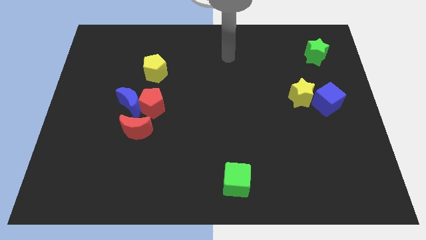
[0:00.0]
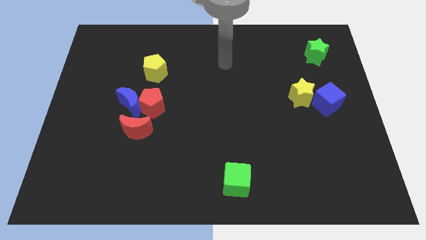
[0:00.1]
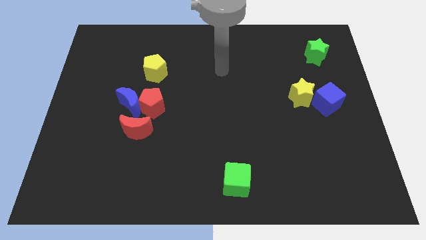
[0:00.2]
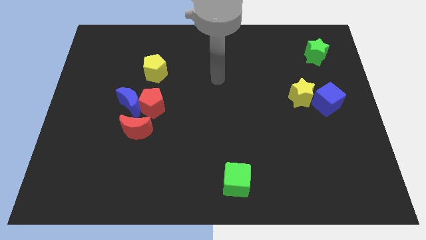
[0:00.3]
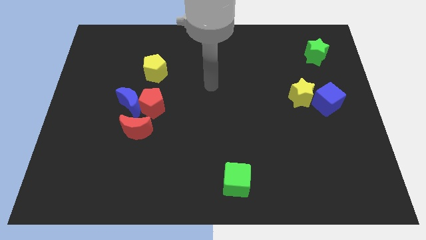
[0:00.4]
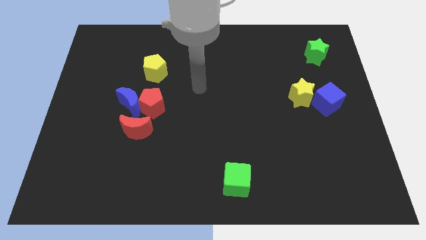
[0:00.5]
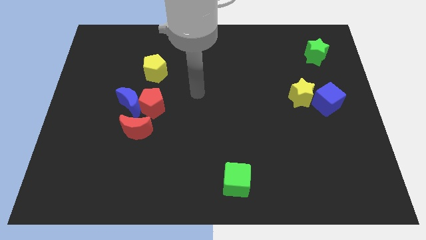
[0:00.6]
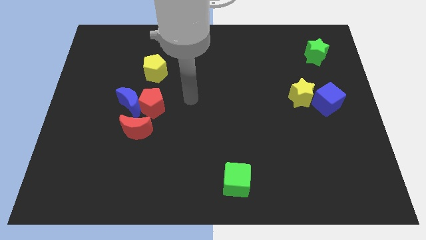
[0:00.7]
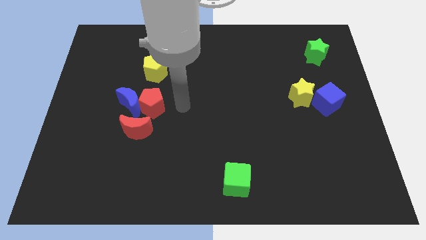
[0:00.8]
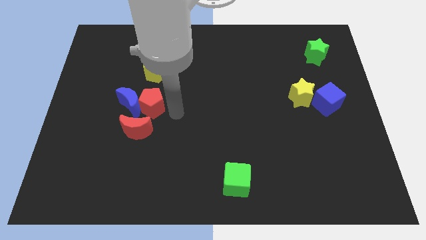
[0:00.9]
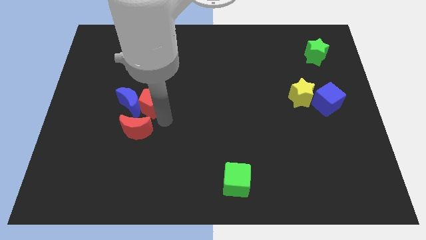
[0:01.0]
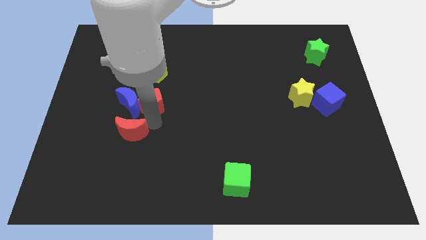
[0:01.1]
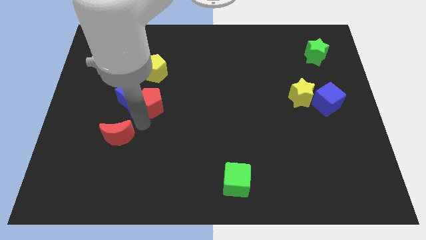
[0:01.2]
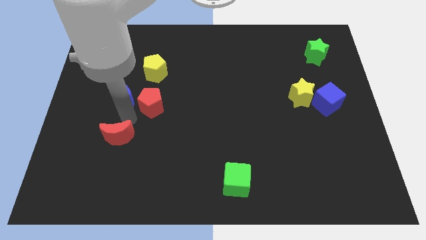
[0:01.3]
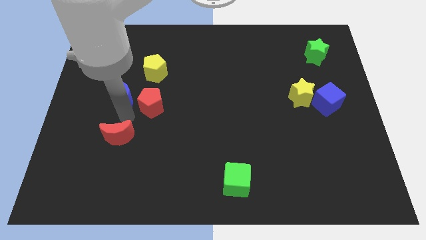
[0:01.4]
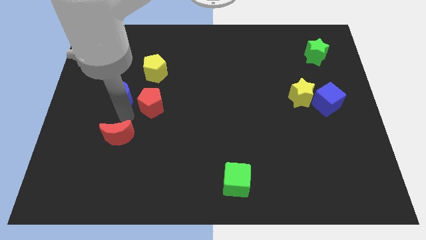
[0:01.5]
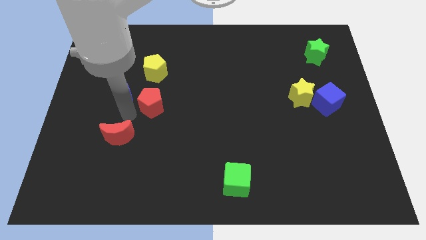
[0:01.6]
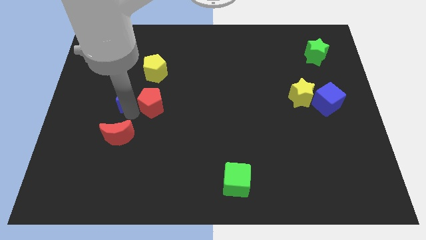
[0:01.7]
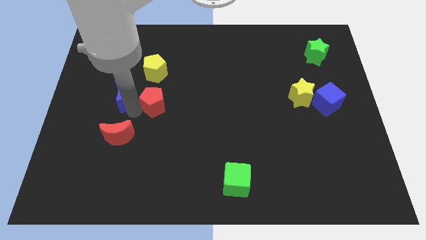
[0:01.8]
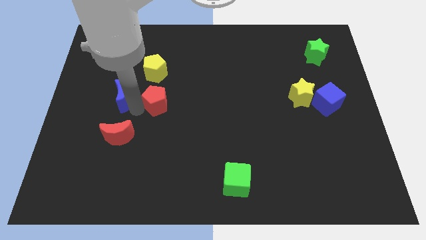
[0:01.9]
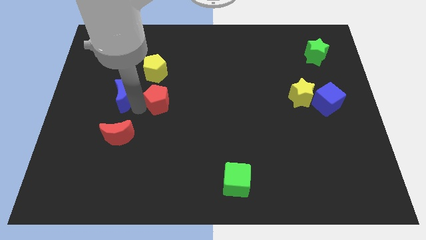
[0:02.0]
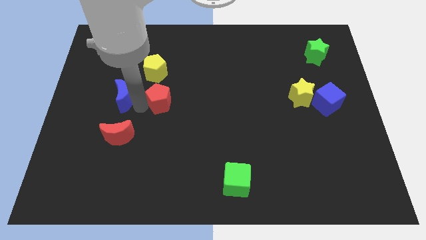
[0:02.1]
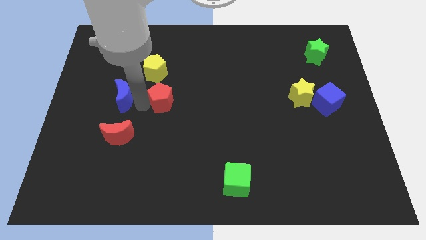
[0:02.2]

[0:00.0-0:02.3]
pull the red pentagon apart from the blue moon and red moon

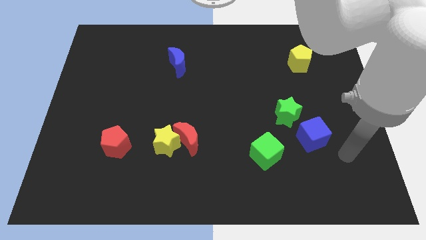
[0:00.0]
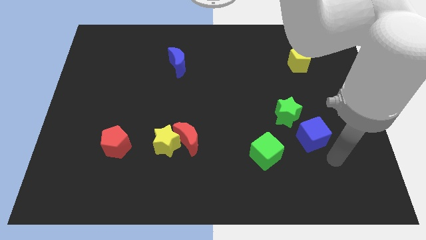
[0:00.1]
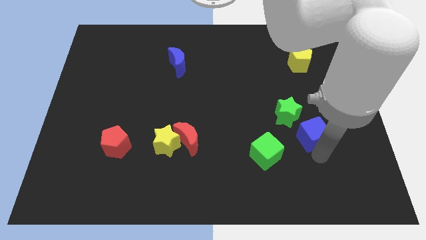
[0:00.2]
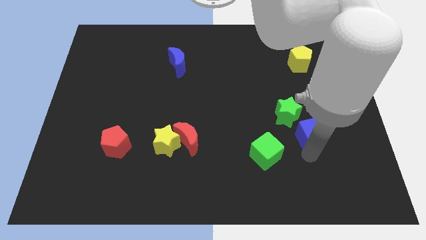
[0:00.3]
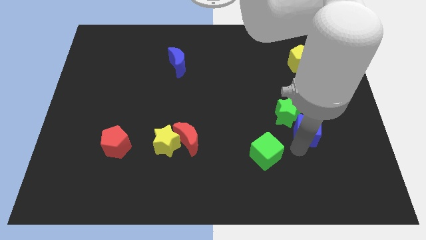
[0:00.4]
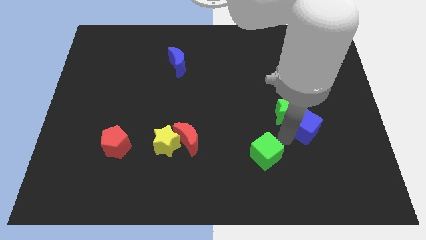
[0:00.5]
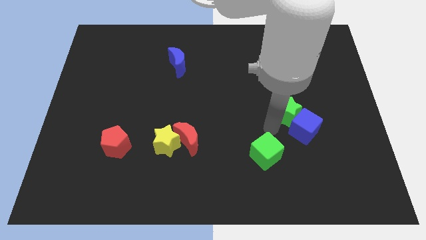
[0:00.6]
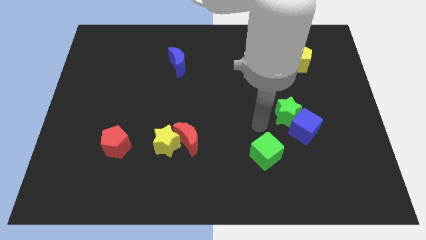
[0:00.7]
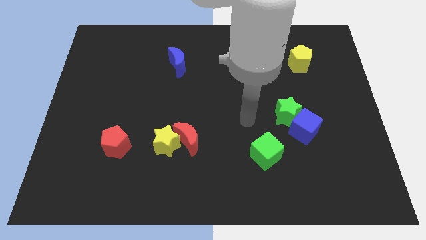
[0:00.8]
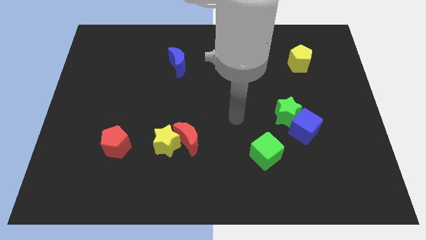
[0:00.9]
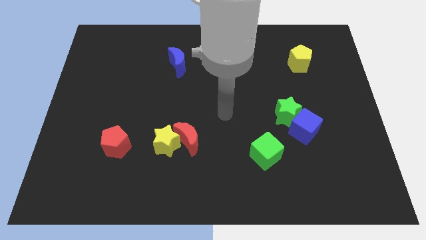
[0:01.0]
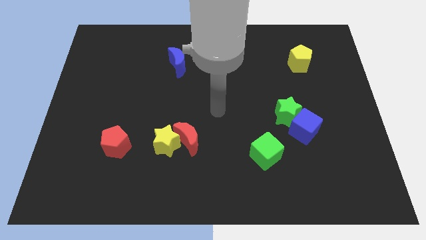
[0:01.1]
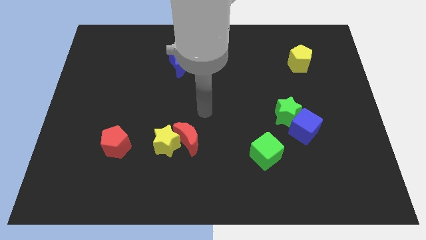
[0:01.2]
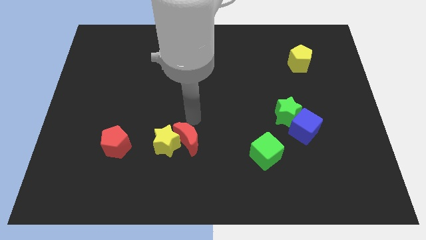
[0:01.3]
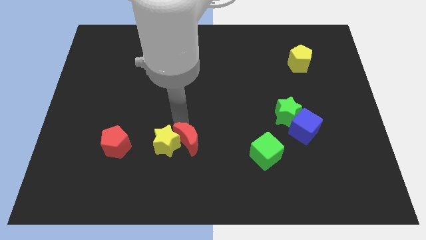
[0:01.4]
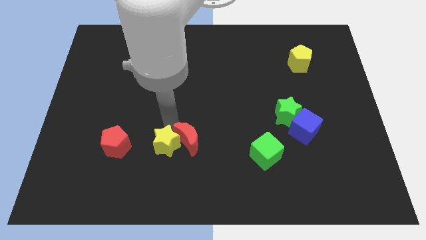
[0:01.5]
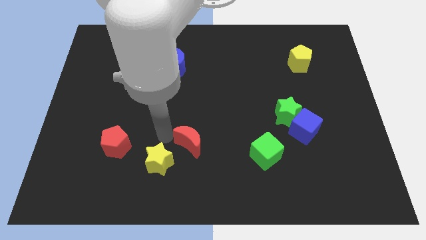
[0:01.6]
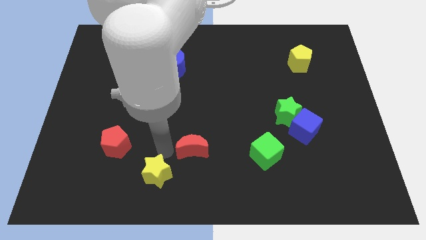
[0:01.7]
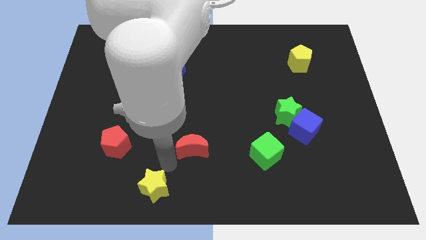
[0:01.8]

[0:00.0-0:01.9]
separate the red moon from the yellow star

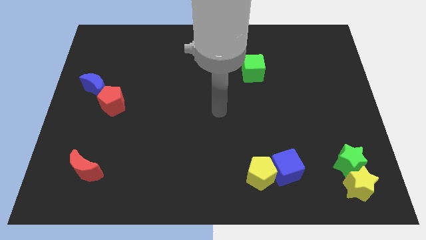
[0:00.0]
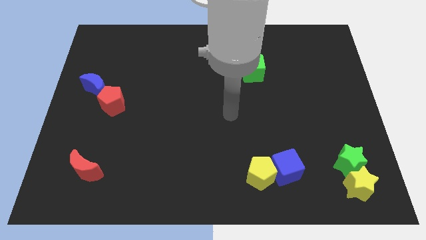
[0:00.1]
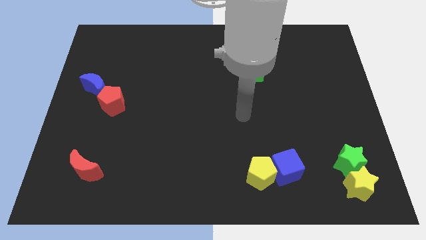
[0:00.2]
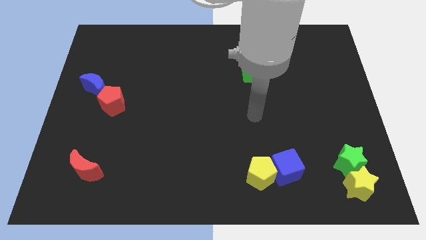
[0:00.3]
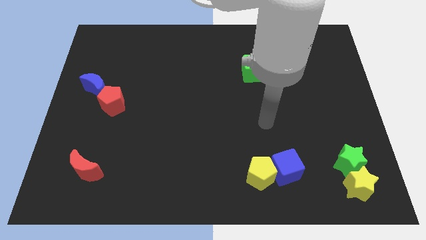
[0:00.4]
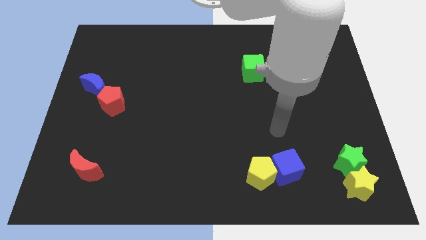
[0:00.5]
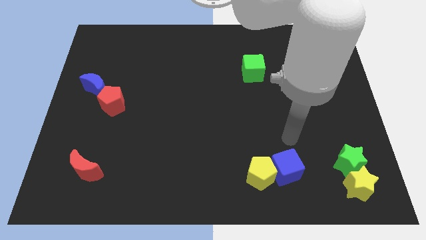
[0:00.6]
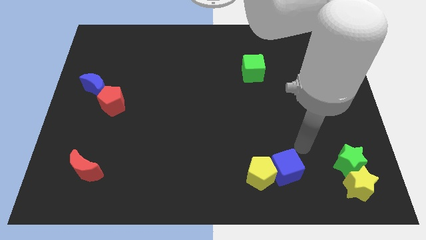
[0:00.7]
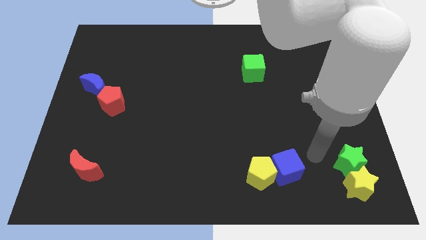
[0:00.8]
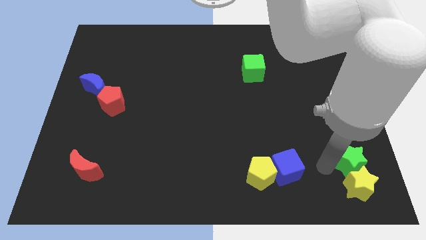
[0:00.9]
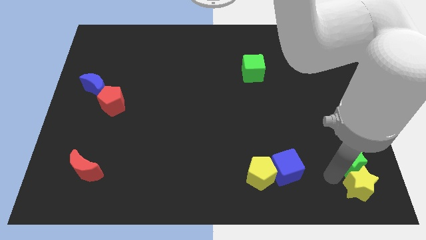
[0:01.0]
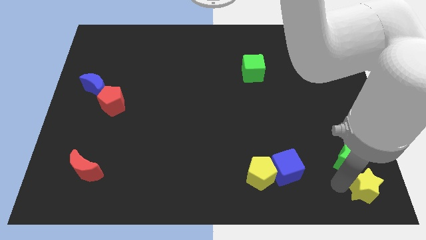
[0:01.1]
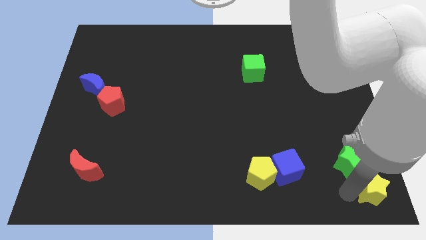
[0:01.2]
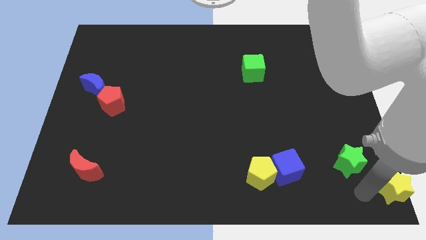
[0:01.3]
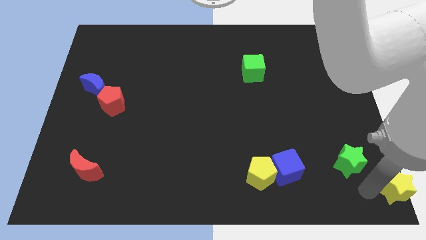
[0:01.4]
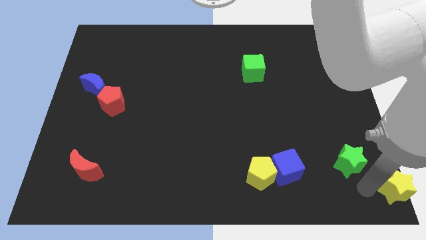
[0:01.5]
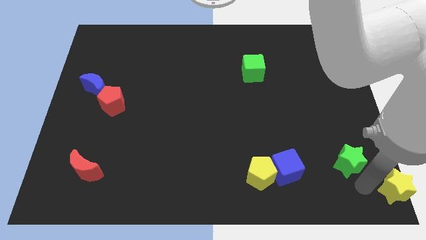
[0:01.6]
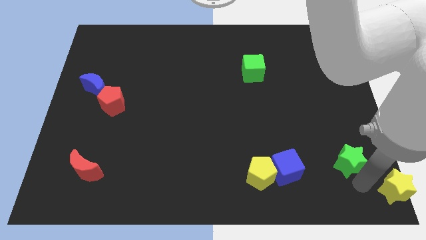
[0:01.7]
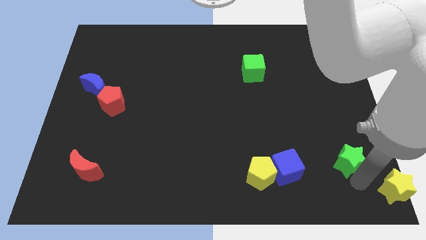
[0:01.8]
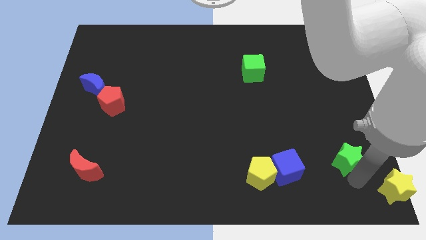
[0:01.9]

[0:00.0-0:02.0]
move the green star away from the yellow star

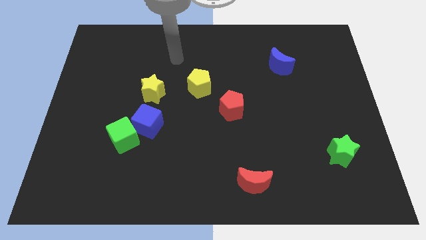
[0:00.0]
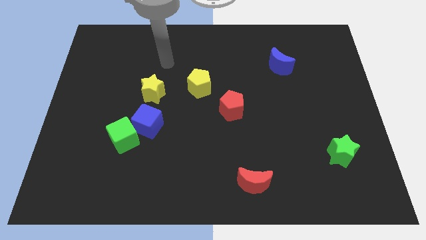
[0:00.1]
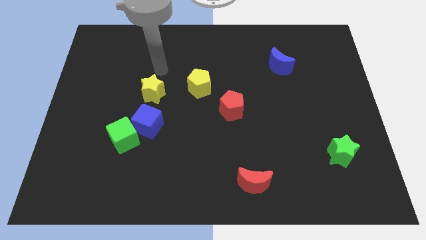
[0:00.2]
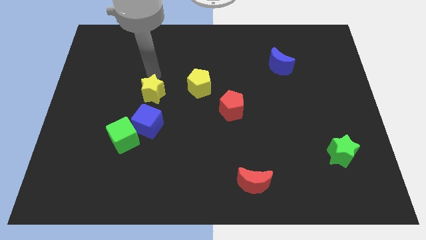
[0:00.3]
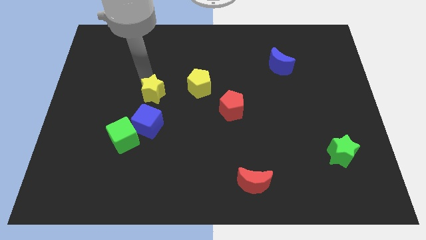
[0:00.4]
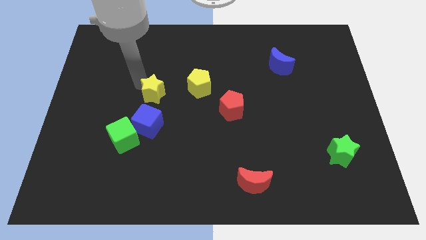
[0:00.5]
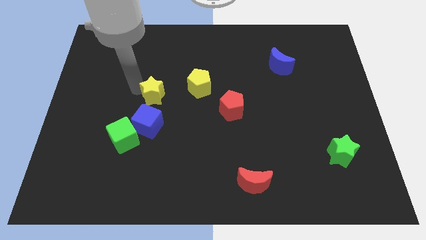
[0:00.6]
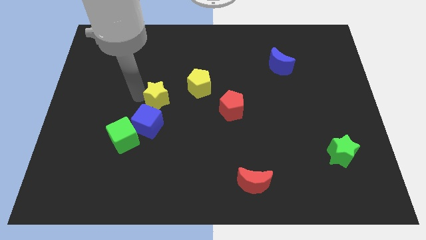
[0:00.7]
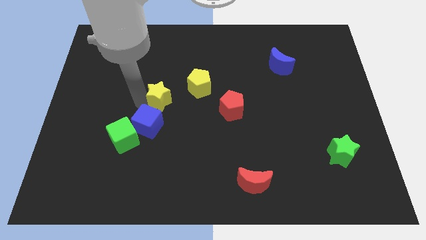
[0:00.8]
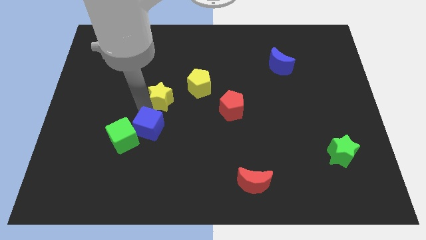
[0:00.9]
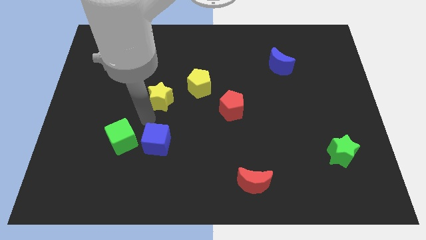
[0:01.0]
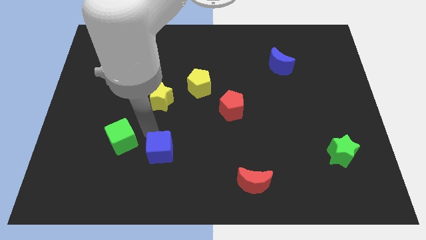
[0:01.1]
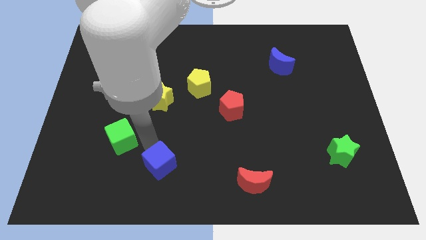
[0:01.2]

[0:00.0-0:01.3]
separate the green cube from the blue cube

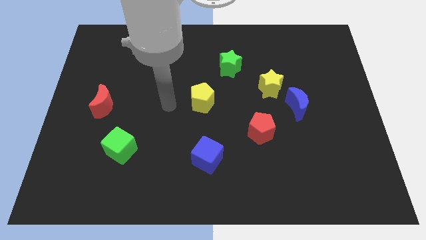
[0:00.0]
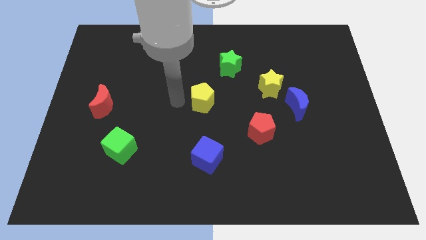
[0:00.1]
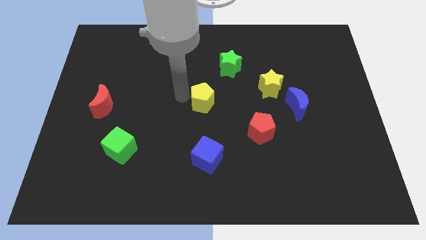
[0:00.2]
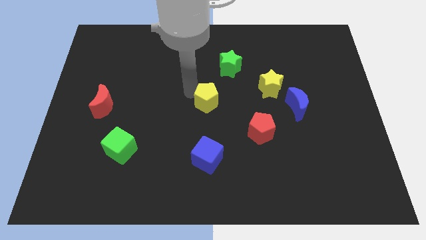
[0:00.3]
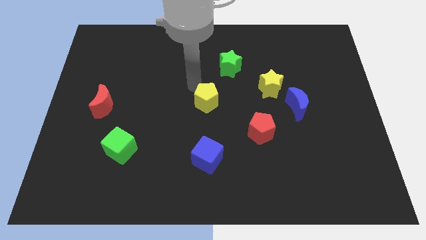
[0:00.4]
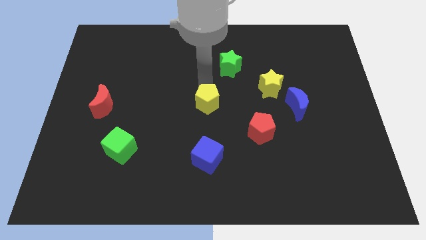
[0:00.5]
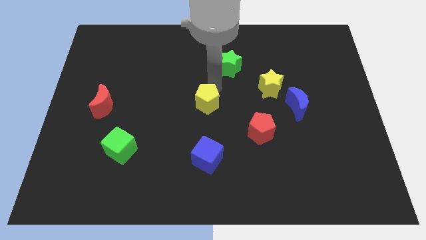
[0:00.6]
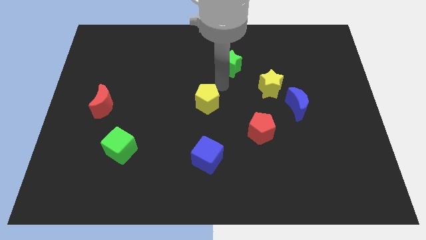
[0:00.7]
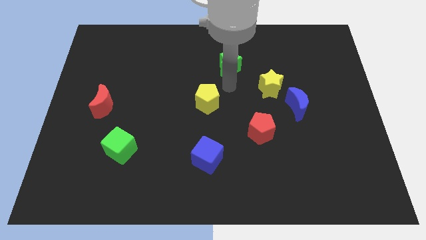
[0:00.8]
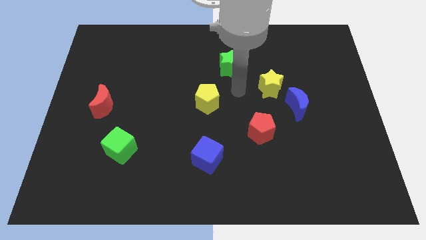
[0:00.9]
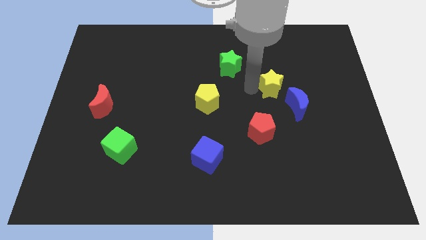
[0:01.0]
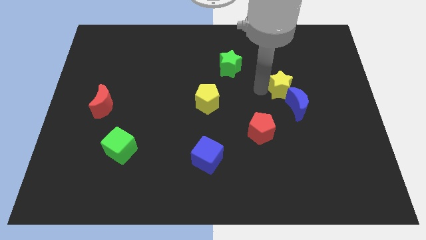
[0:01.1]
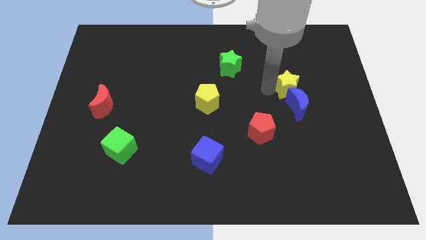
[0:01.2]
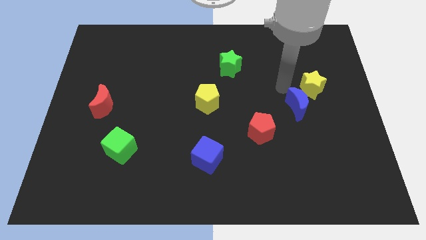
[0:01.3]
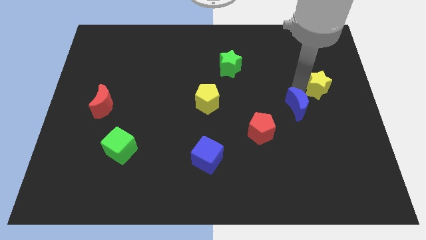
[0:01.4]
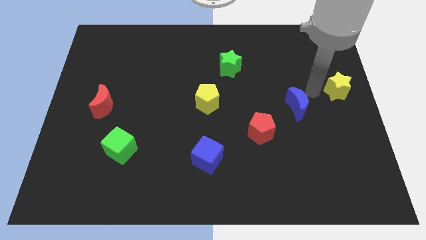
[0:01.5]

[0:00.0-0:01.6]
pull the blue moon apart from the yellow star

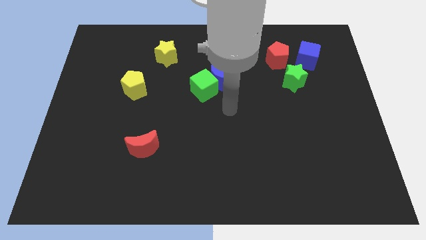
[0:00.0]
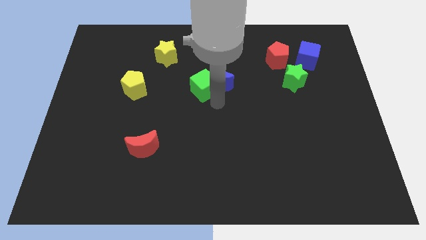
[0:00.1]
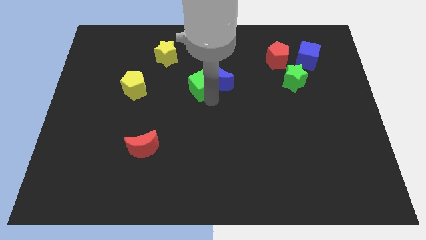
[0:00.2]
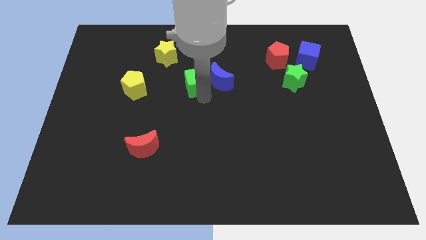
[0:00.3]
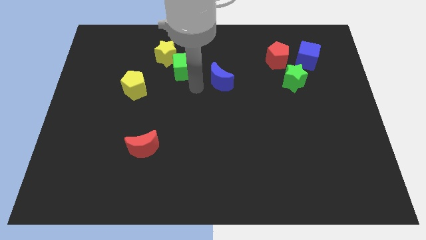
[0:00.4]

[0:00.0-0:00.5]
separate the blue moon from the green cube
